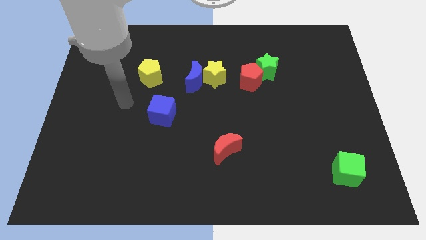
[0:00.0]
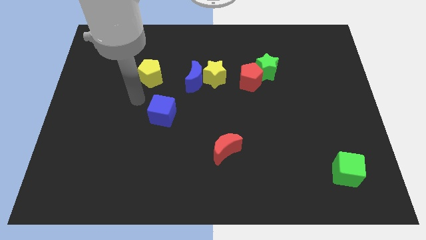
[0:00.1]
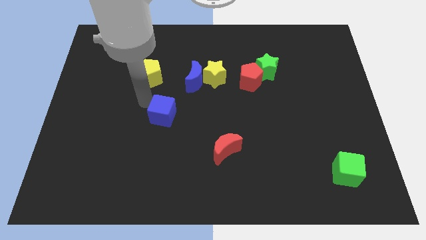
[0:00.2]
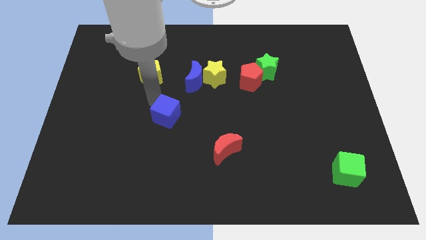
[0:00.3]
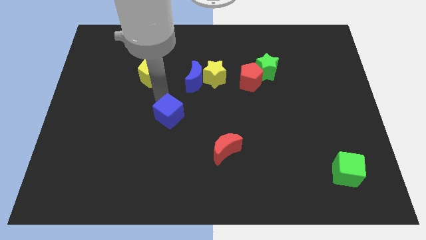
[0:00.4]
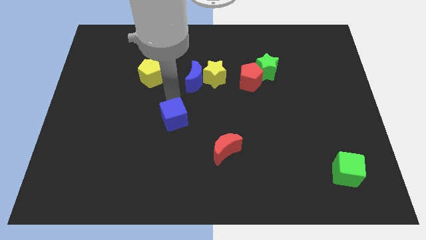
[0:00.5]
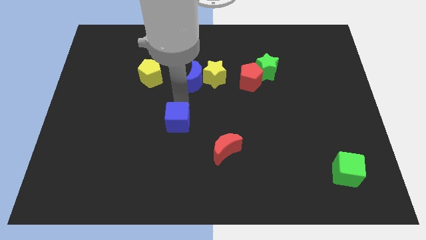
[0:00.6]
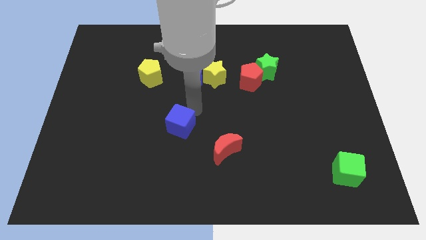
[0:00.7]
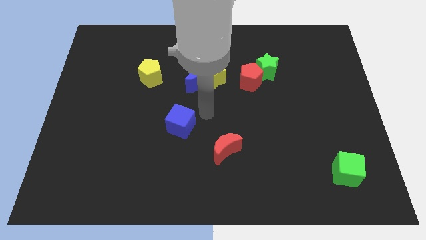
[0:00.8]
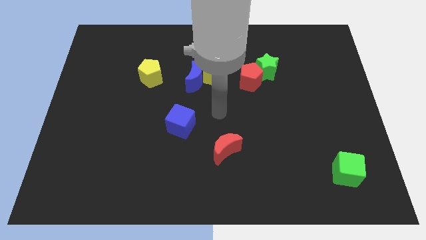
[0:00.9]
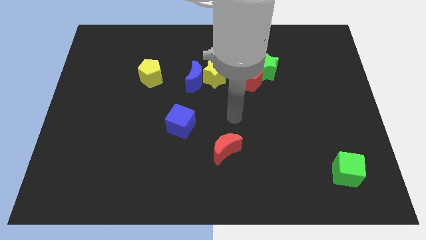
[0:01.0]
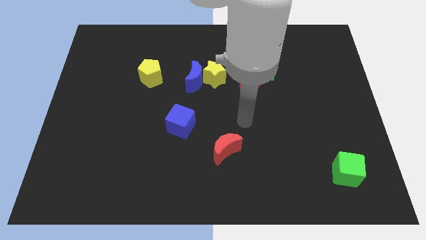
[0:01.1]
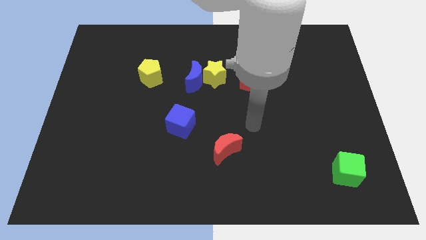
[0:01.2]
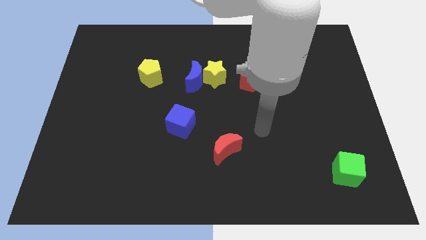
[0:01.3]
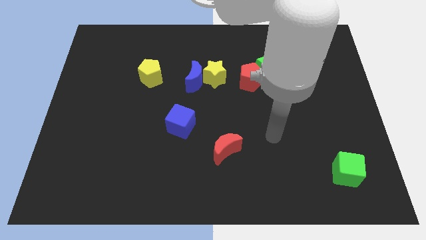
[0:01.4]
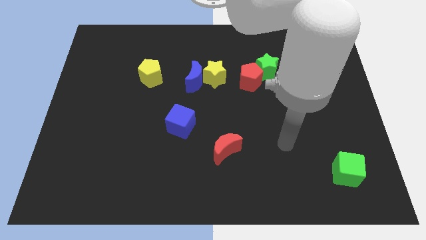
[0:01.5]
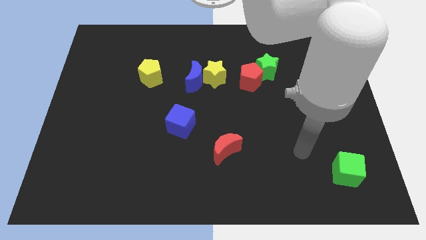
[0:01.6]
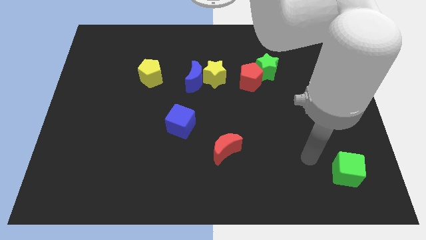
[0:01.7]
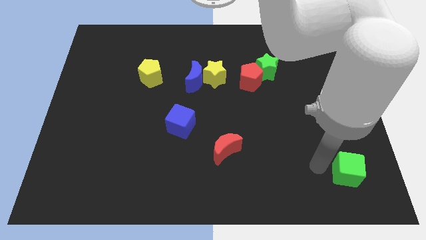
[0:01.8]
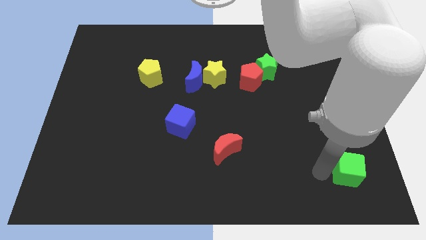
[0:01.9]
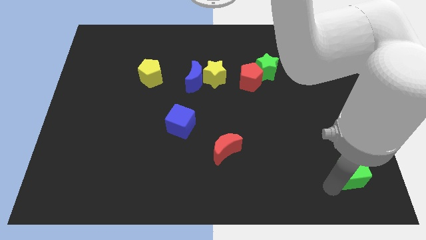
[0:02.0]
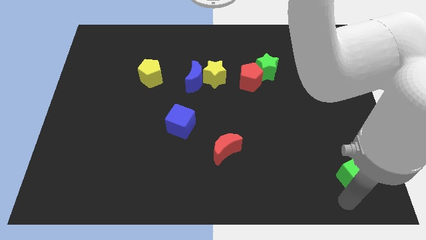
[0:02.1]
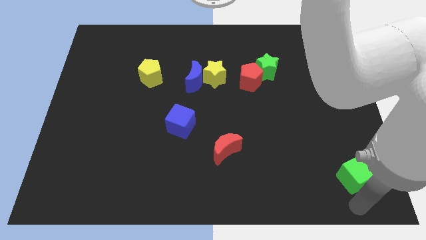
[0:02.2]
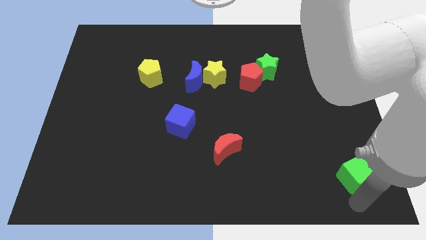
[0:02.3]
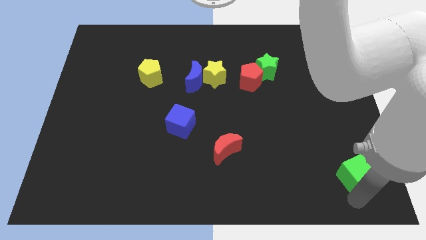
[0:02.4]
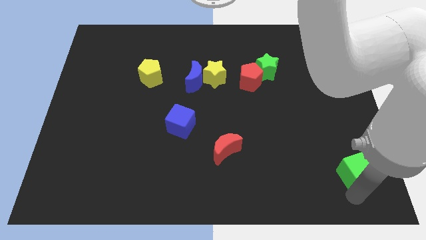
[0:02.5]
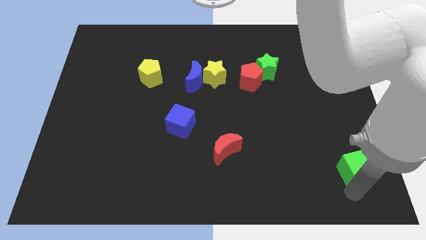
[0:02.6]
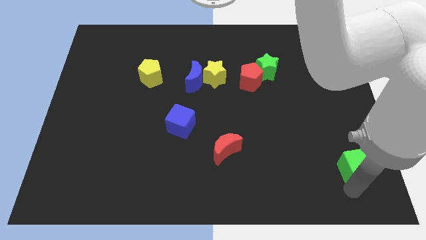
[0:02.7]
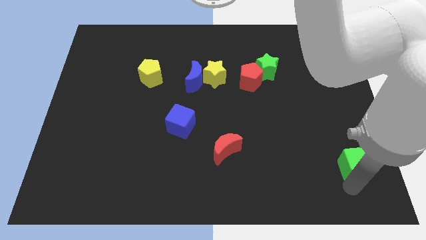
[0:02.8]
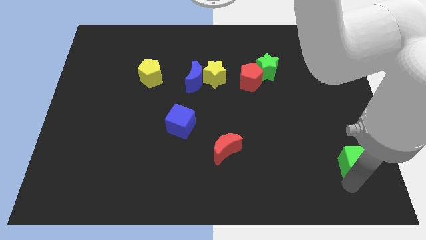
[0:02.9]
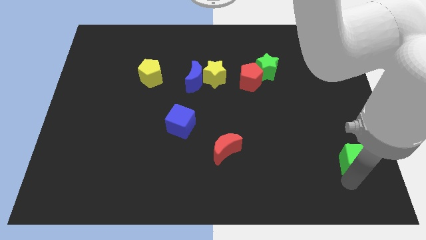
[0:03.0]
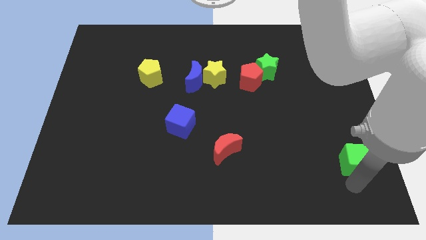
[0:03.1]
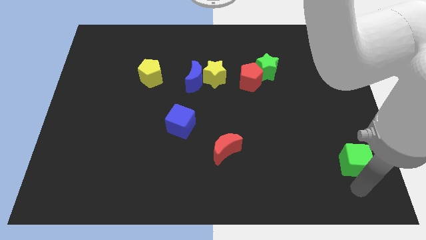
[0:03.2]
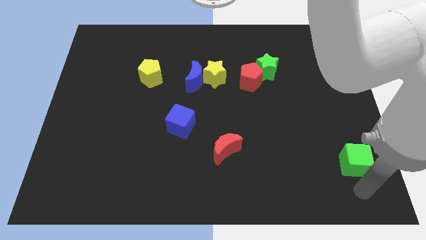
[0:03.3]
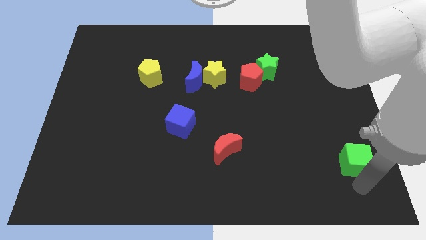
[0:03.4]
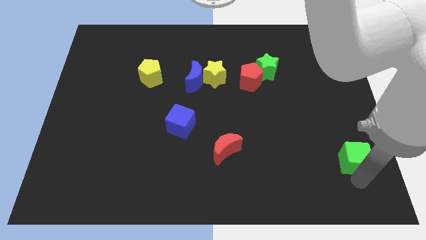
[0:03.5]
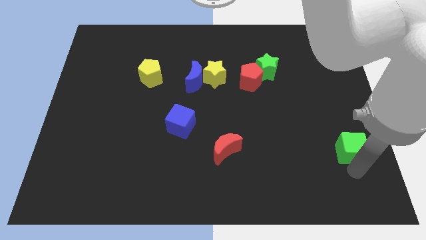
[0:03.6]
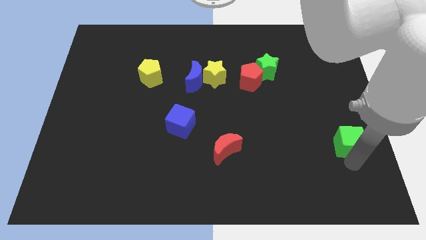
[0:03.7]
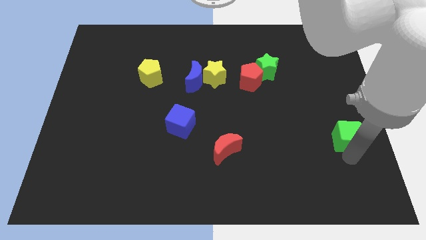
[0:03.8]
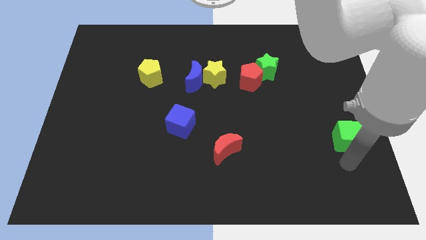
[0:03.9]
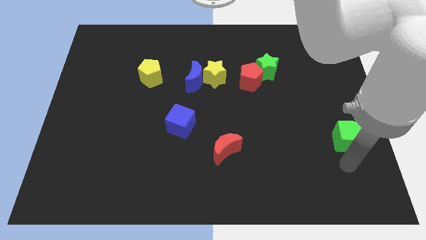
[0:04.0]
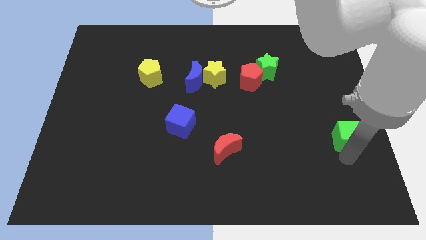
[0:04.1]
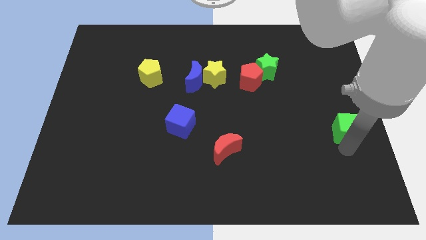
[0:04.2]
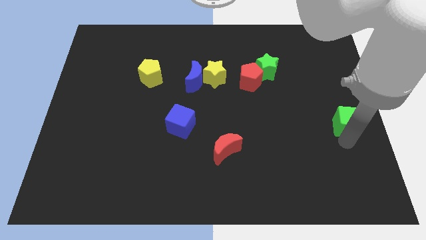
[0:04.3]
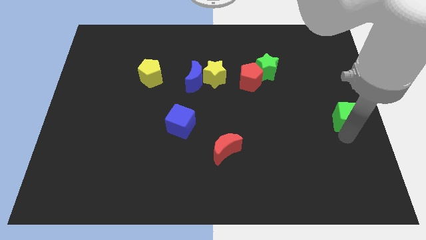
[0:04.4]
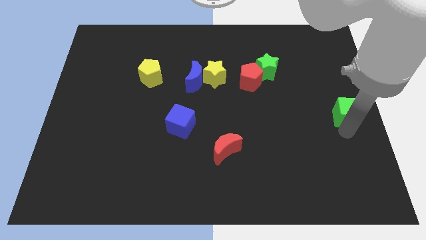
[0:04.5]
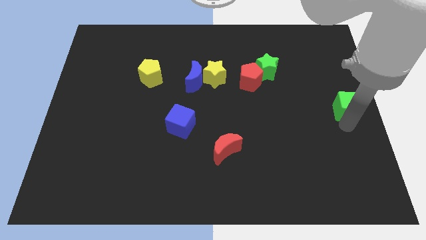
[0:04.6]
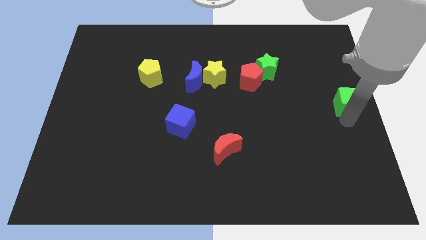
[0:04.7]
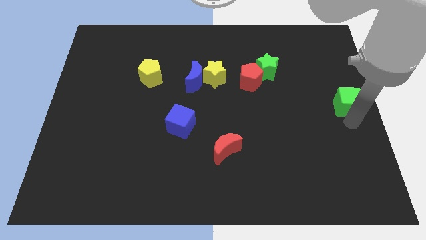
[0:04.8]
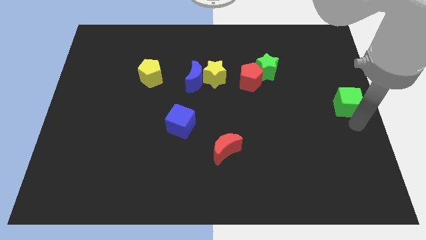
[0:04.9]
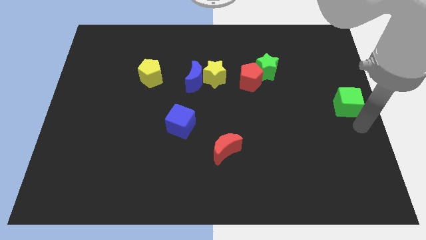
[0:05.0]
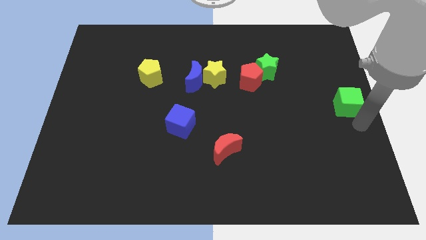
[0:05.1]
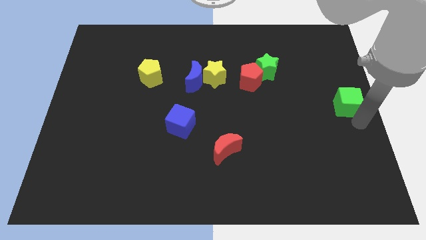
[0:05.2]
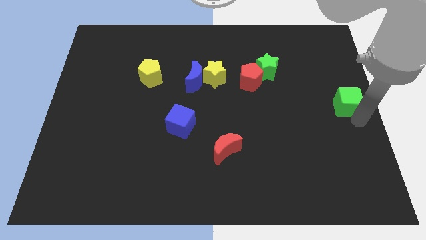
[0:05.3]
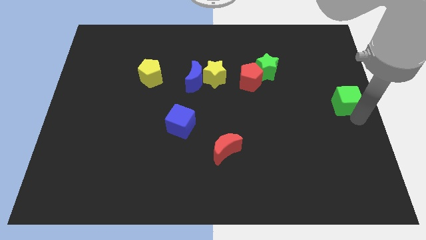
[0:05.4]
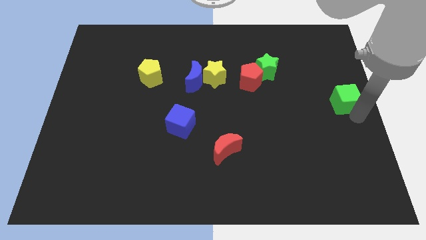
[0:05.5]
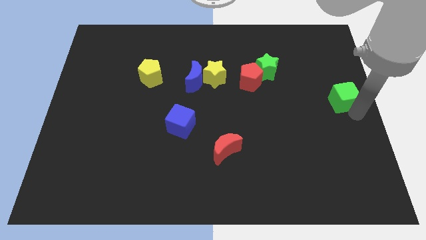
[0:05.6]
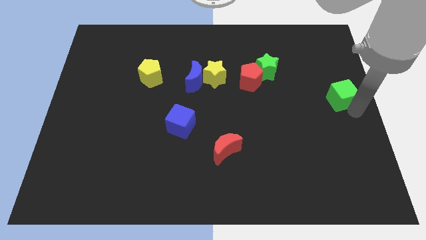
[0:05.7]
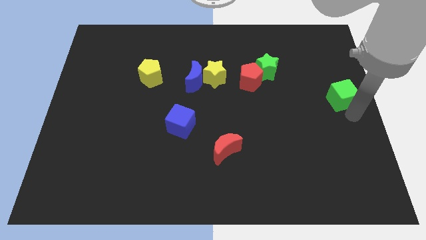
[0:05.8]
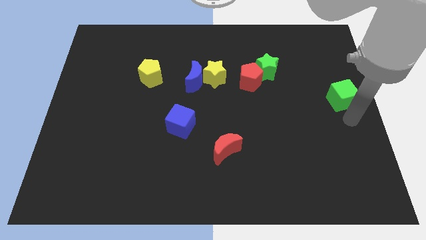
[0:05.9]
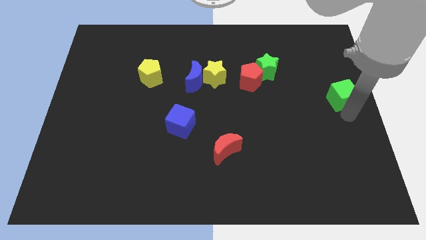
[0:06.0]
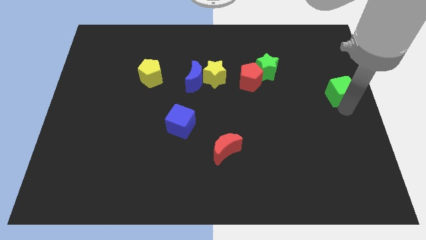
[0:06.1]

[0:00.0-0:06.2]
push the green cube up

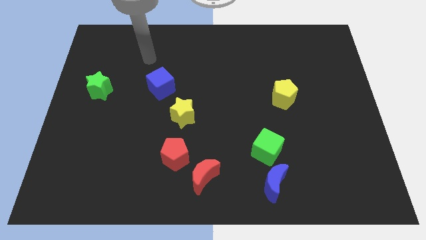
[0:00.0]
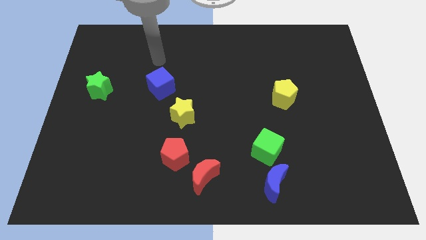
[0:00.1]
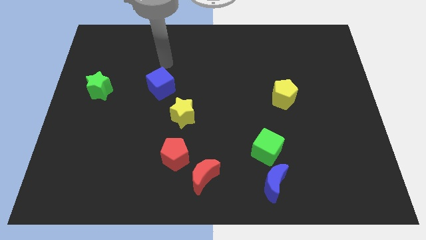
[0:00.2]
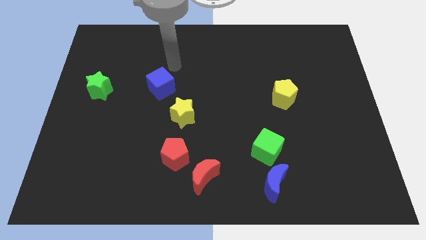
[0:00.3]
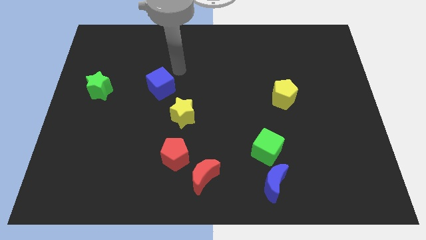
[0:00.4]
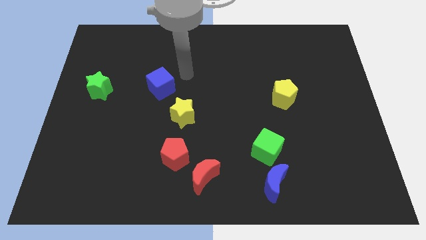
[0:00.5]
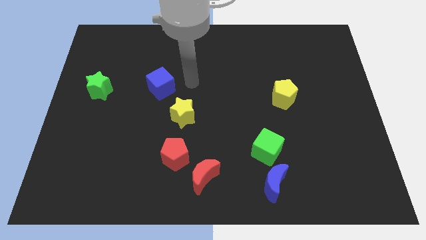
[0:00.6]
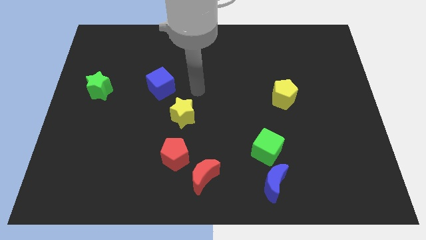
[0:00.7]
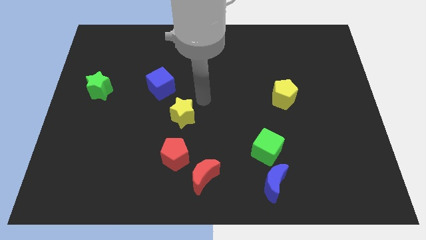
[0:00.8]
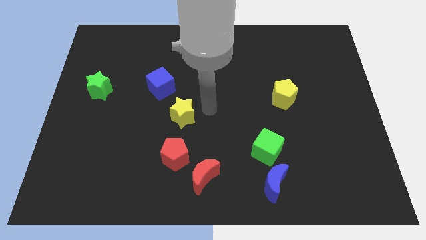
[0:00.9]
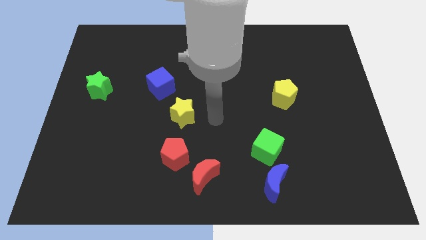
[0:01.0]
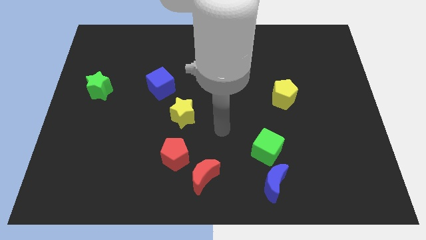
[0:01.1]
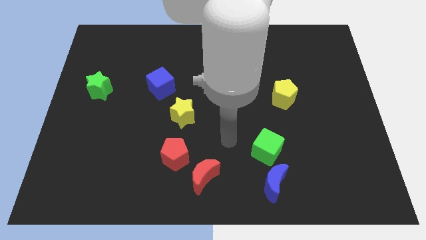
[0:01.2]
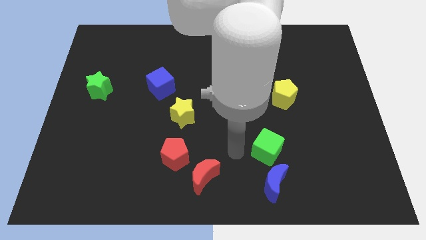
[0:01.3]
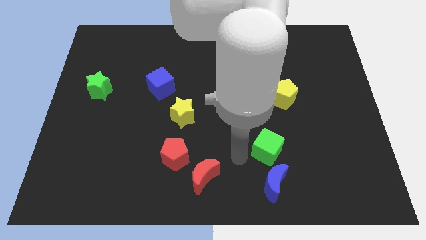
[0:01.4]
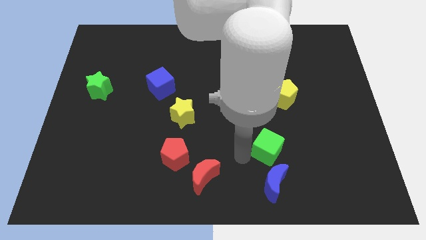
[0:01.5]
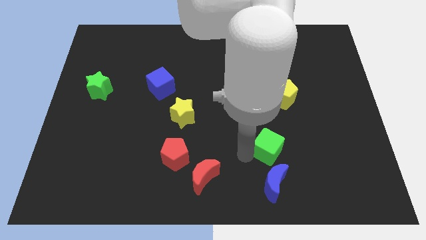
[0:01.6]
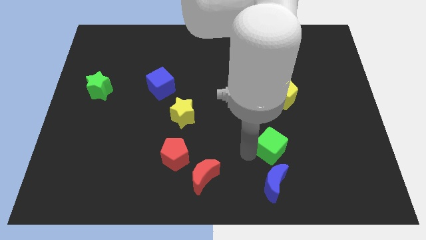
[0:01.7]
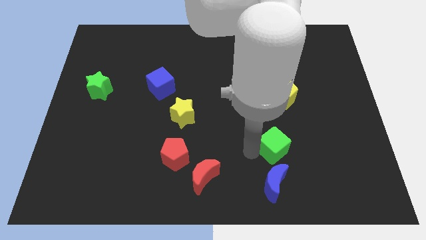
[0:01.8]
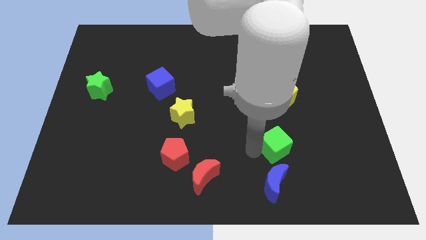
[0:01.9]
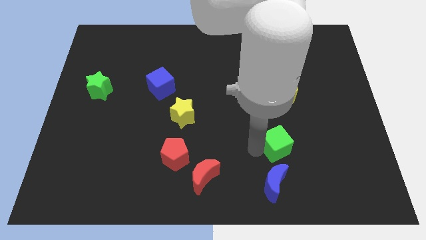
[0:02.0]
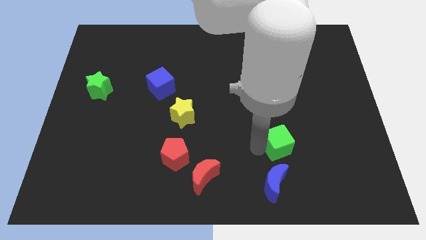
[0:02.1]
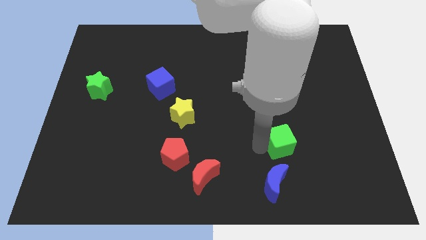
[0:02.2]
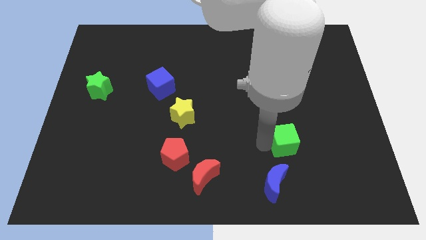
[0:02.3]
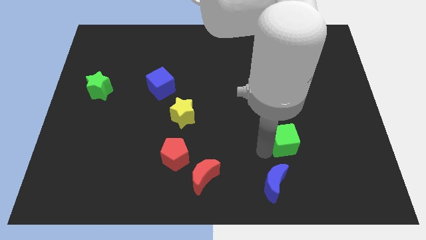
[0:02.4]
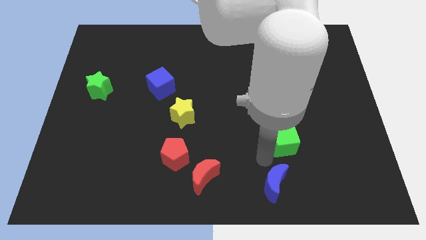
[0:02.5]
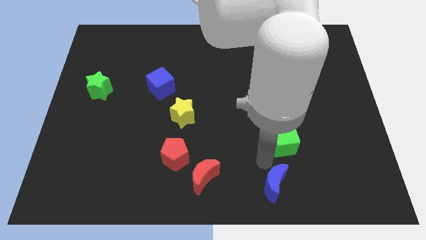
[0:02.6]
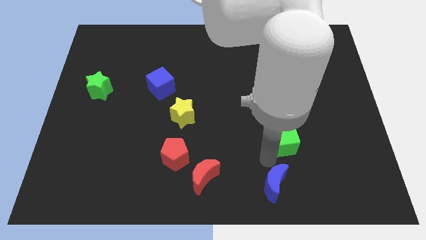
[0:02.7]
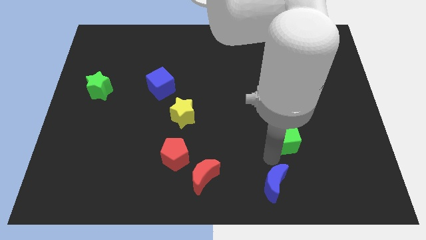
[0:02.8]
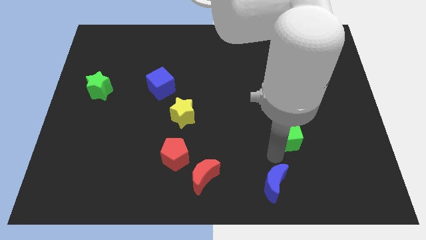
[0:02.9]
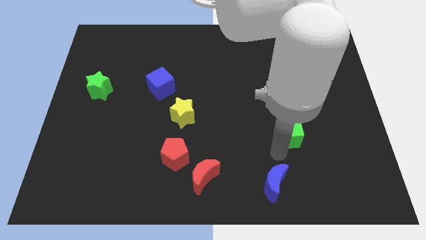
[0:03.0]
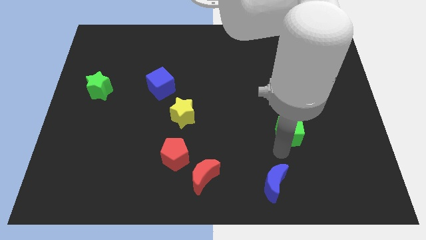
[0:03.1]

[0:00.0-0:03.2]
push the green cube upwards and right diagonally a little bit
